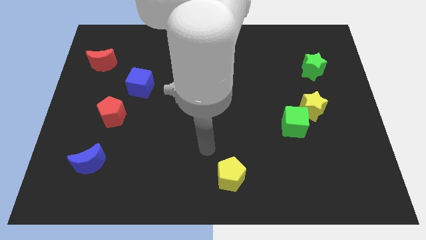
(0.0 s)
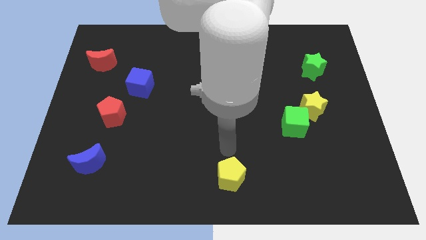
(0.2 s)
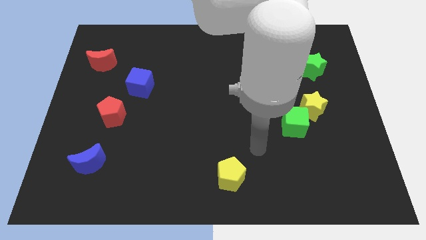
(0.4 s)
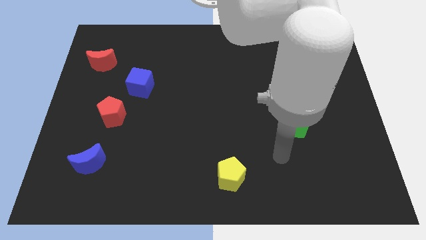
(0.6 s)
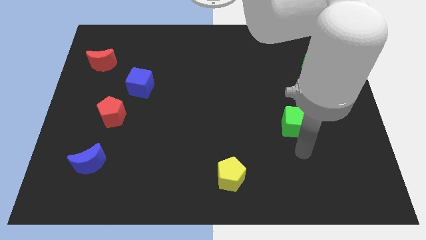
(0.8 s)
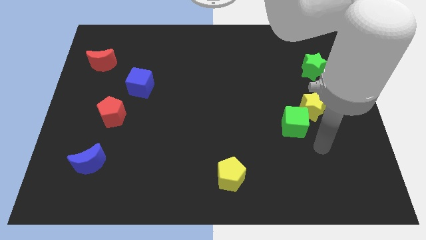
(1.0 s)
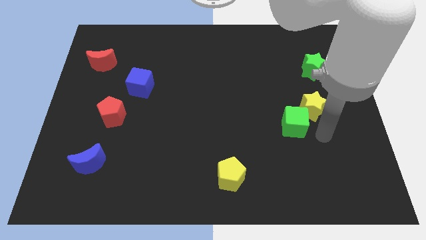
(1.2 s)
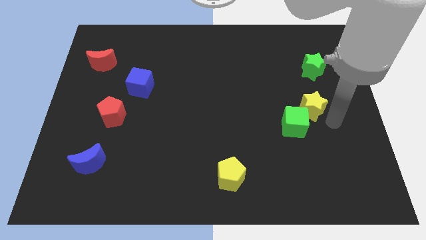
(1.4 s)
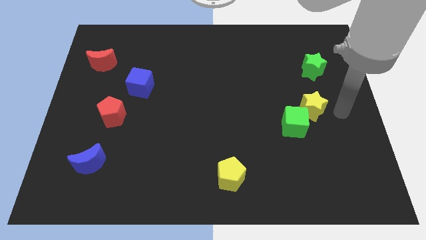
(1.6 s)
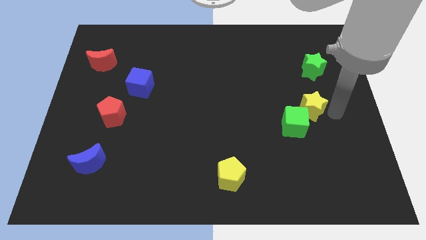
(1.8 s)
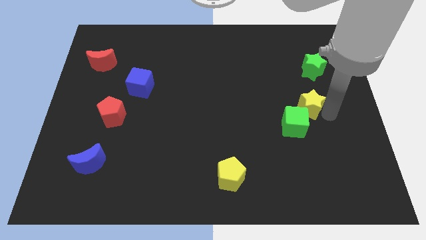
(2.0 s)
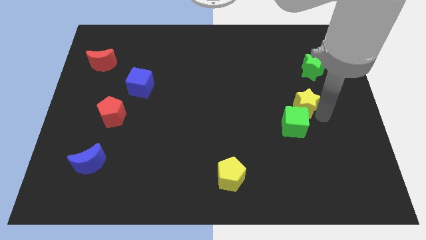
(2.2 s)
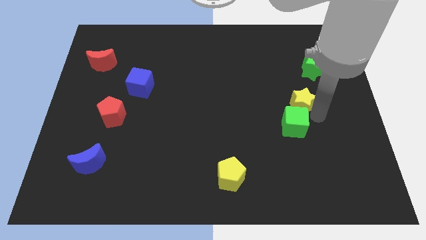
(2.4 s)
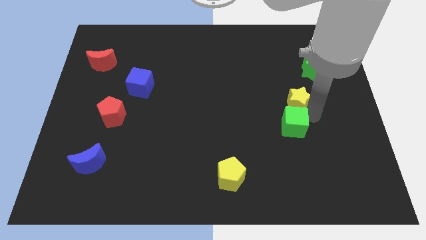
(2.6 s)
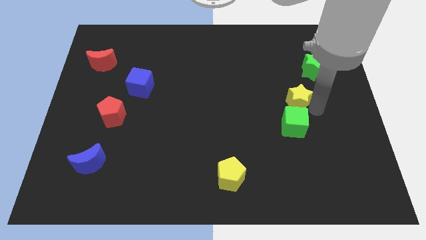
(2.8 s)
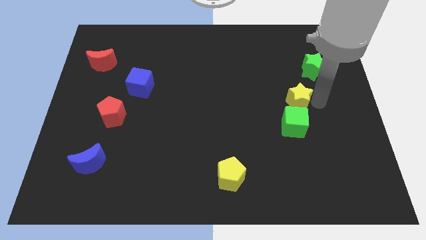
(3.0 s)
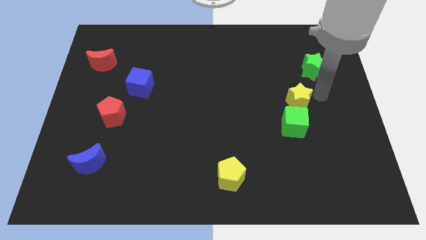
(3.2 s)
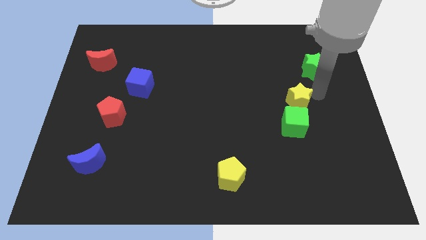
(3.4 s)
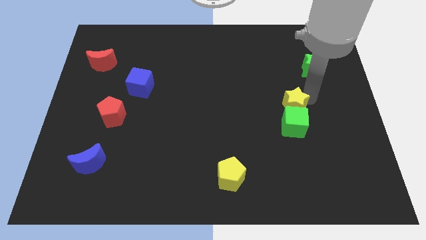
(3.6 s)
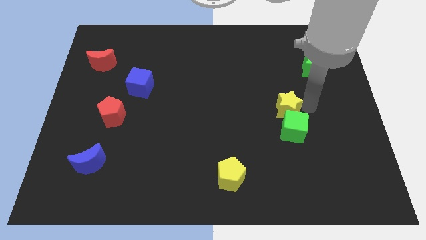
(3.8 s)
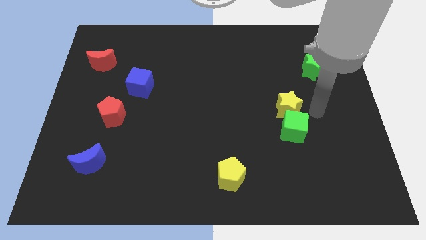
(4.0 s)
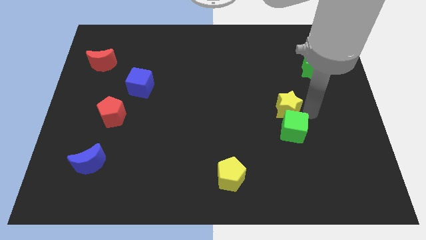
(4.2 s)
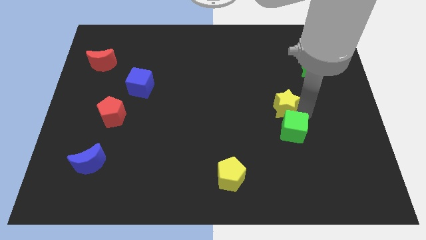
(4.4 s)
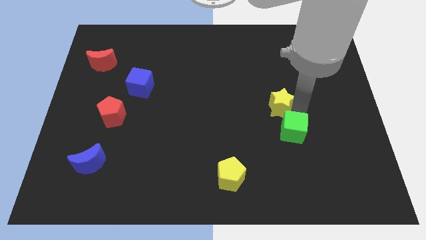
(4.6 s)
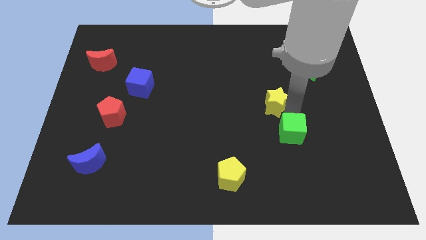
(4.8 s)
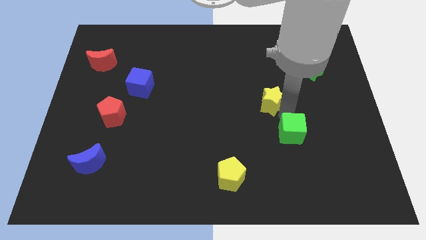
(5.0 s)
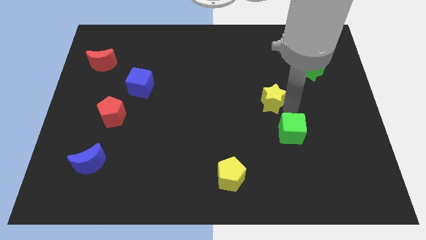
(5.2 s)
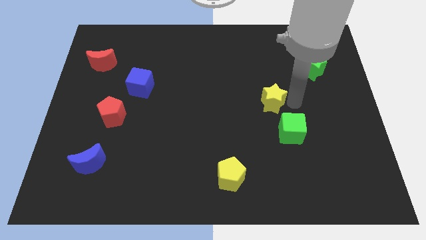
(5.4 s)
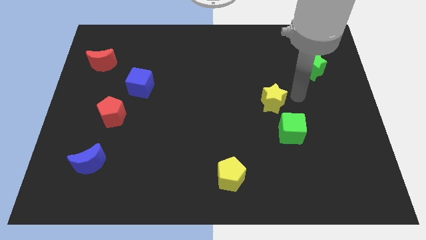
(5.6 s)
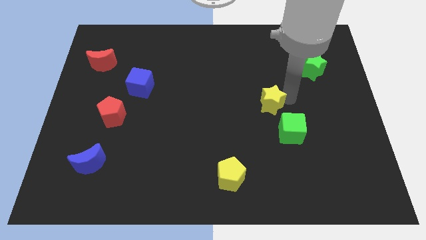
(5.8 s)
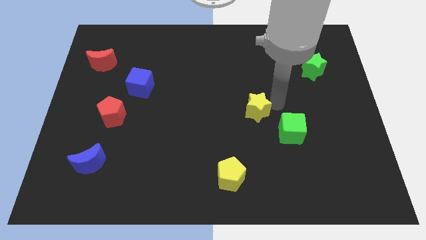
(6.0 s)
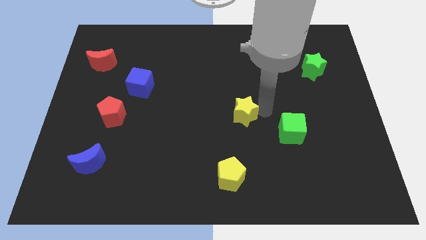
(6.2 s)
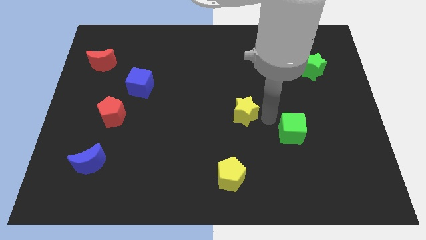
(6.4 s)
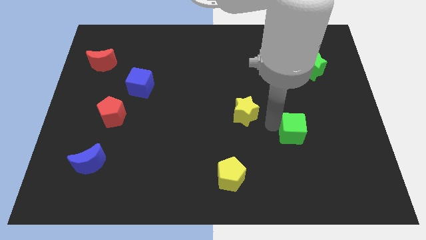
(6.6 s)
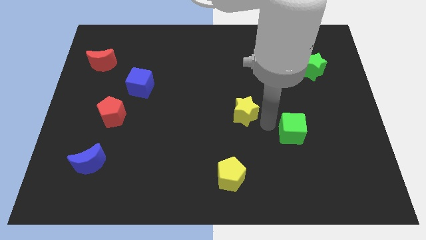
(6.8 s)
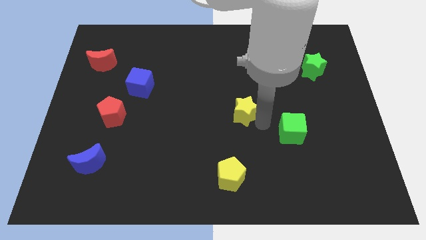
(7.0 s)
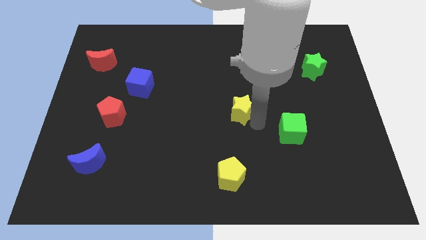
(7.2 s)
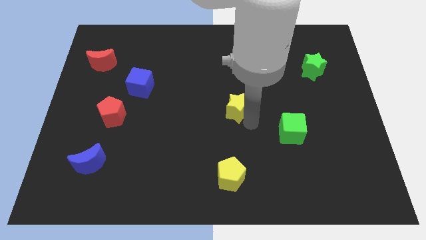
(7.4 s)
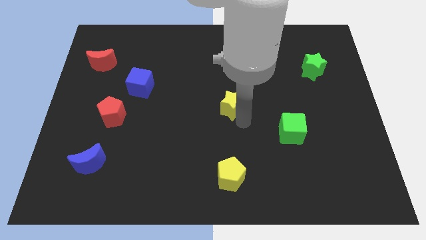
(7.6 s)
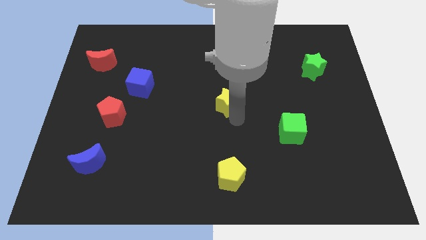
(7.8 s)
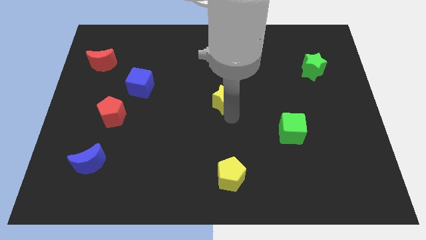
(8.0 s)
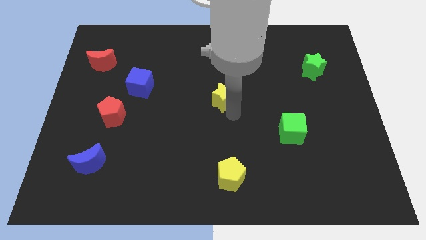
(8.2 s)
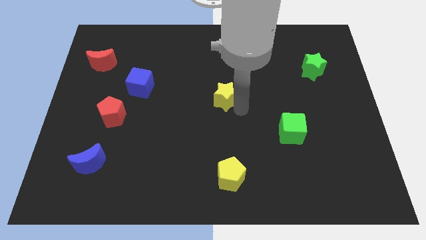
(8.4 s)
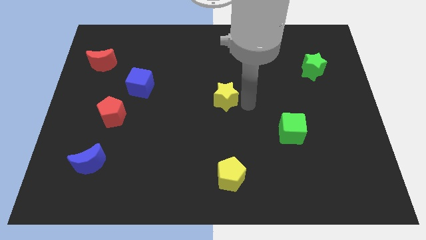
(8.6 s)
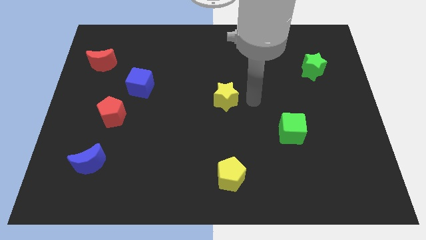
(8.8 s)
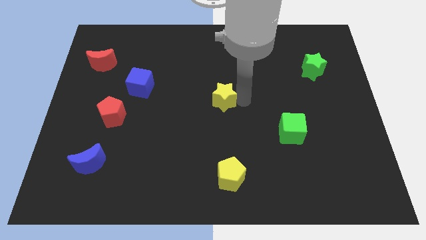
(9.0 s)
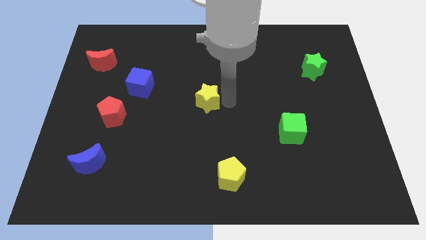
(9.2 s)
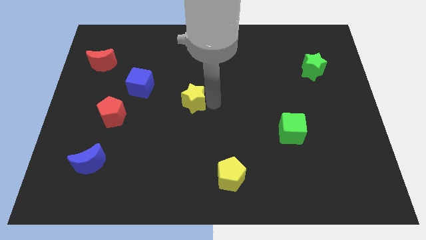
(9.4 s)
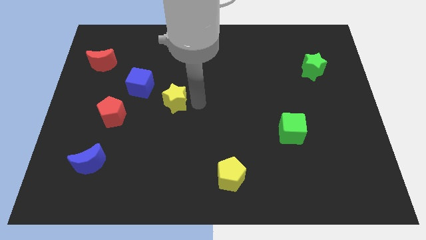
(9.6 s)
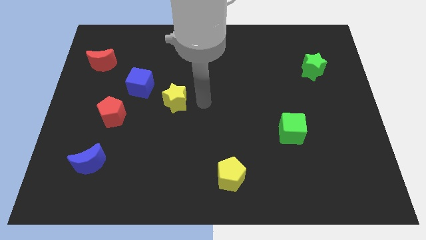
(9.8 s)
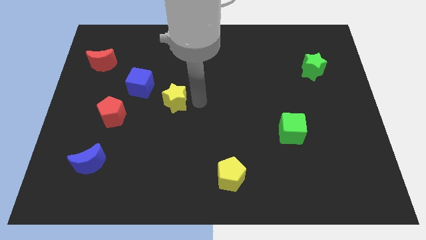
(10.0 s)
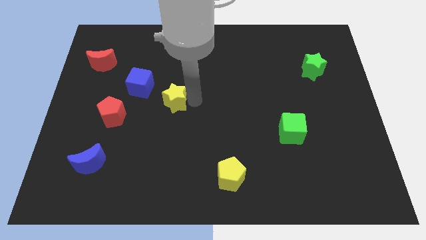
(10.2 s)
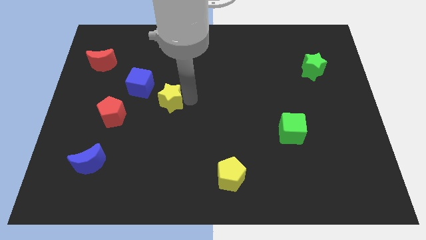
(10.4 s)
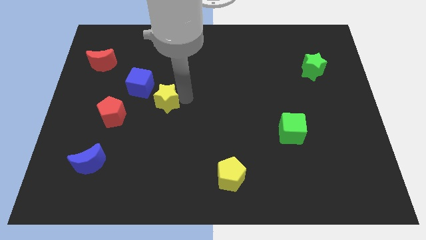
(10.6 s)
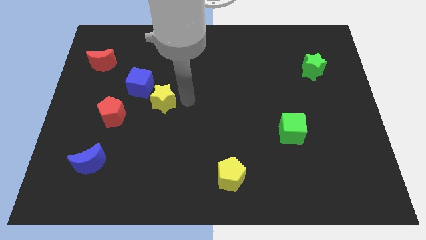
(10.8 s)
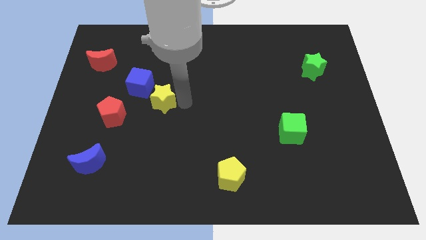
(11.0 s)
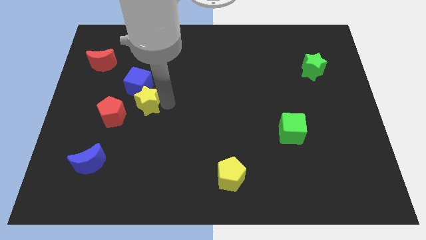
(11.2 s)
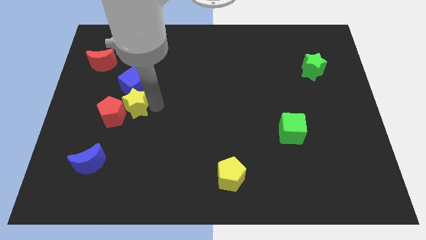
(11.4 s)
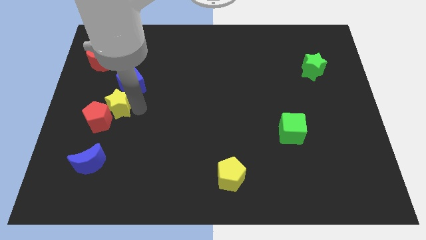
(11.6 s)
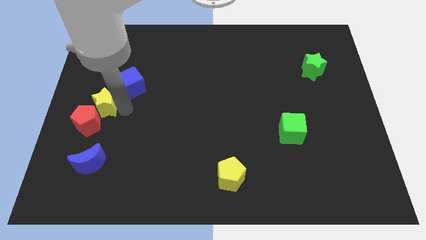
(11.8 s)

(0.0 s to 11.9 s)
push the yellow star to the left side
